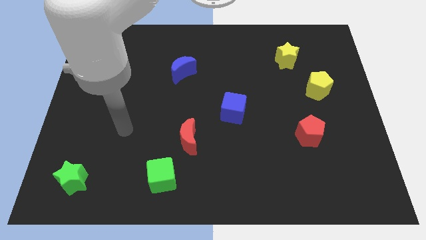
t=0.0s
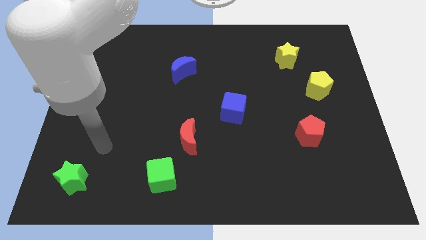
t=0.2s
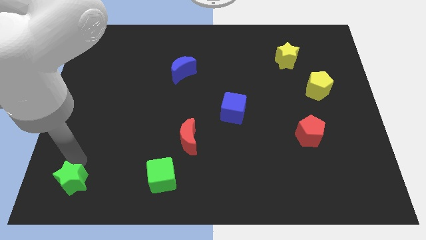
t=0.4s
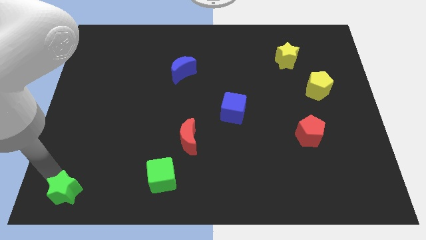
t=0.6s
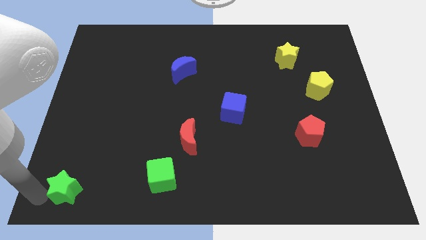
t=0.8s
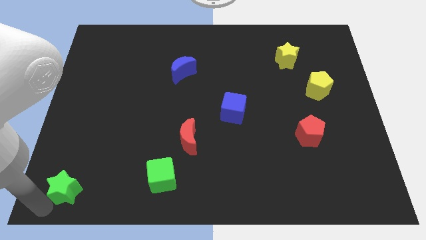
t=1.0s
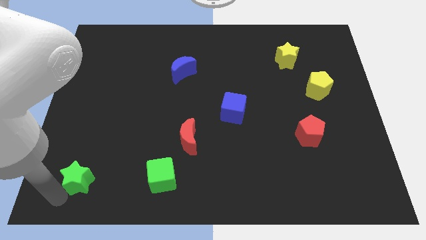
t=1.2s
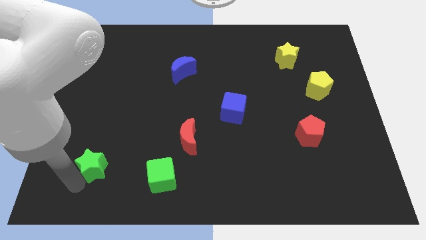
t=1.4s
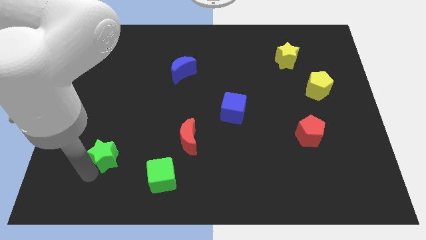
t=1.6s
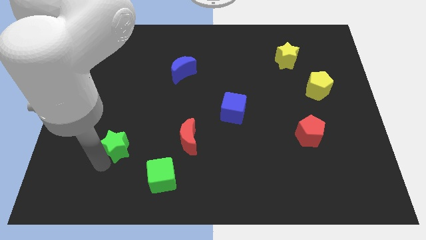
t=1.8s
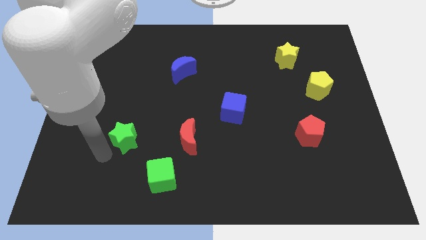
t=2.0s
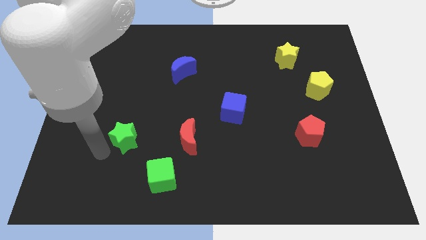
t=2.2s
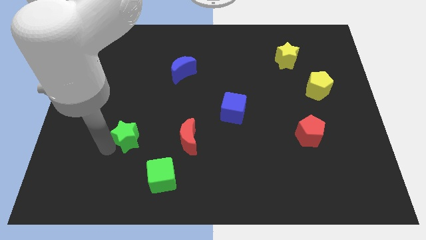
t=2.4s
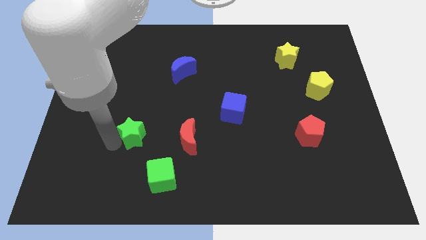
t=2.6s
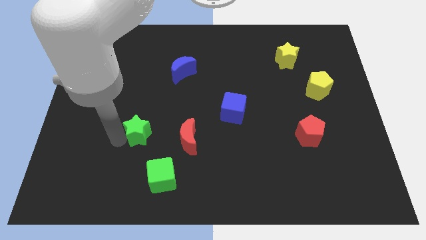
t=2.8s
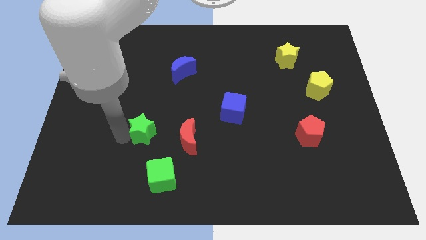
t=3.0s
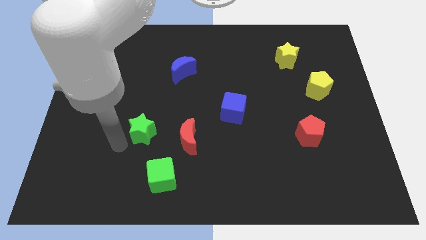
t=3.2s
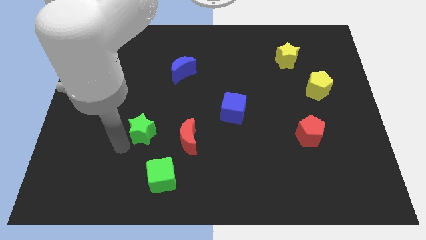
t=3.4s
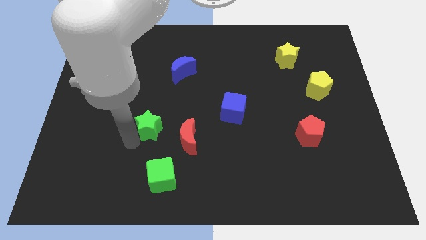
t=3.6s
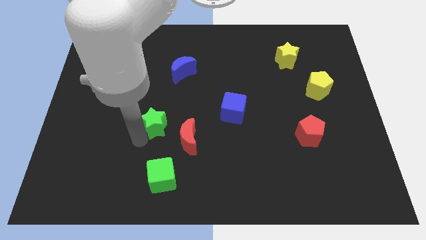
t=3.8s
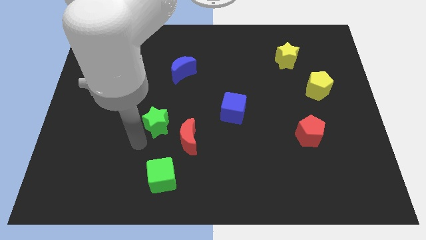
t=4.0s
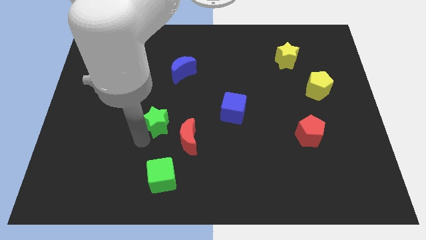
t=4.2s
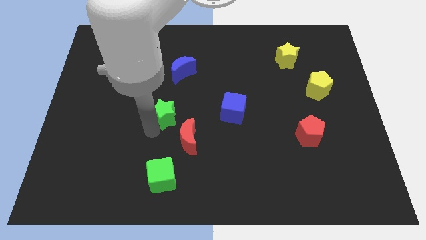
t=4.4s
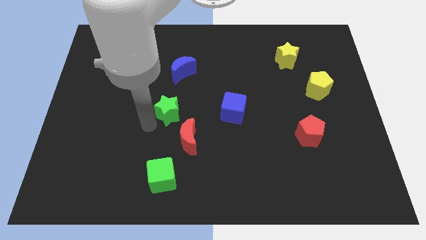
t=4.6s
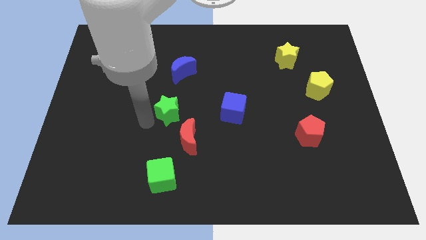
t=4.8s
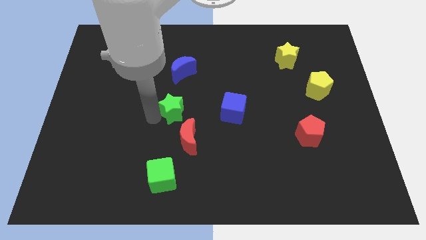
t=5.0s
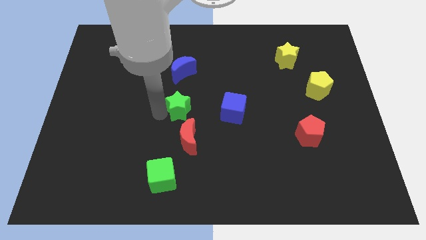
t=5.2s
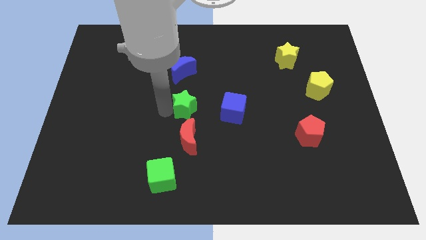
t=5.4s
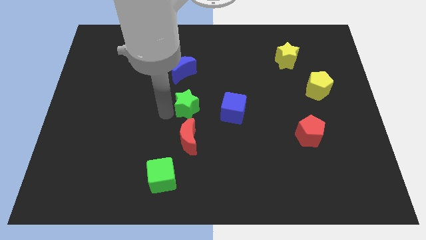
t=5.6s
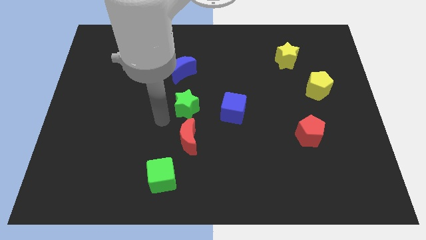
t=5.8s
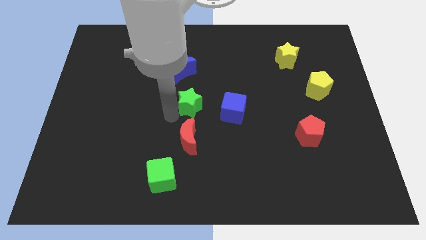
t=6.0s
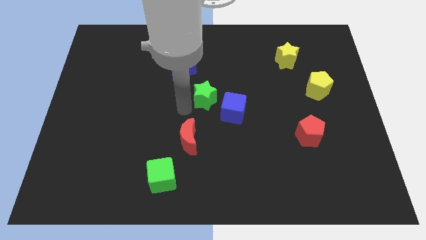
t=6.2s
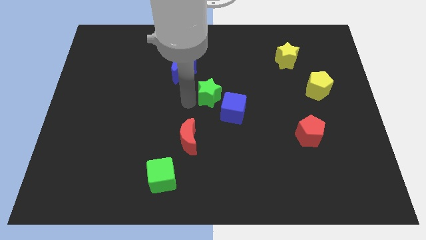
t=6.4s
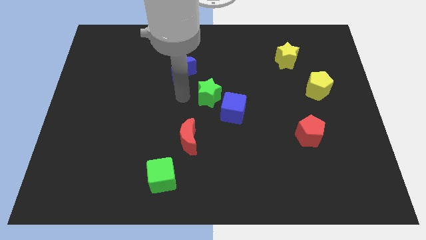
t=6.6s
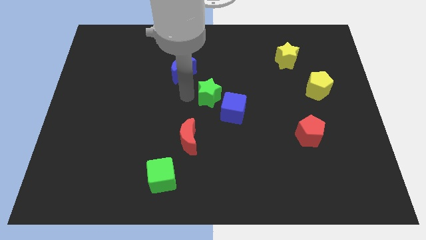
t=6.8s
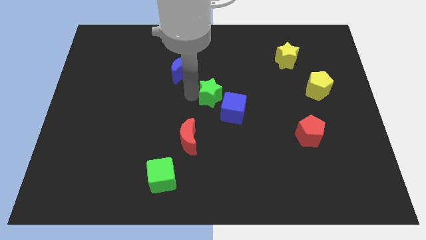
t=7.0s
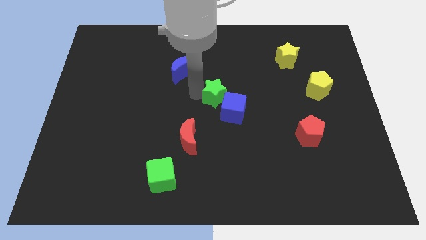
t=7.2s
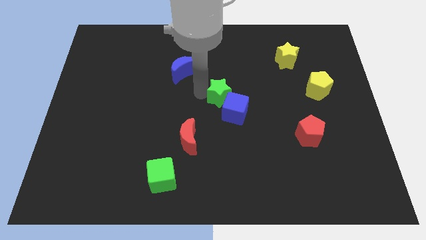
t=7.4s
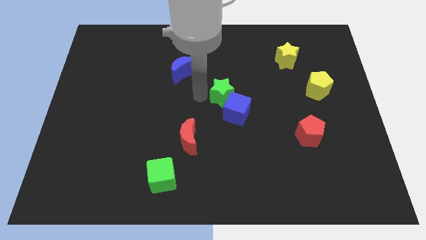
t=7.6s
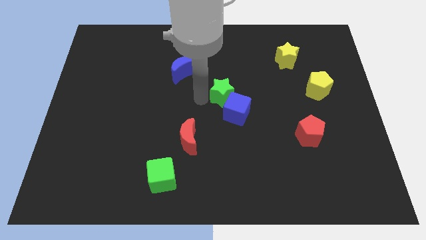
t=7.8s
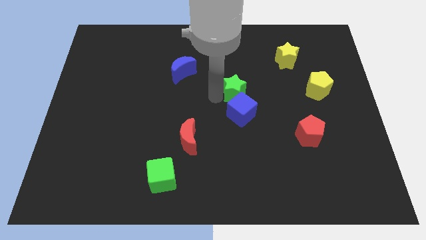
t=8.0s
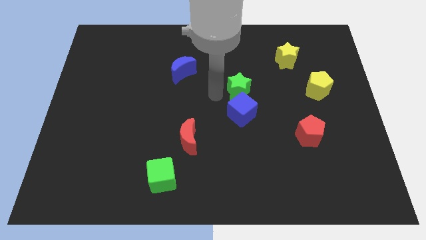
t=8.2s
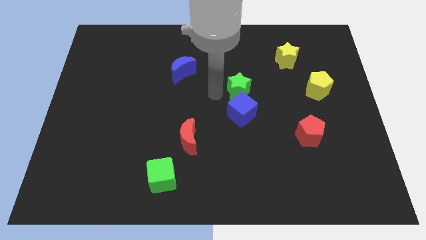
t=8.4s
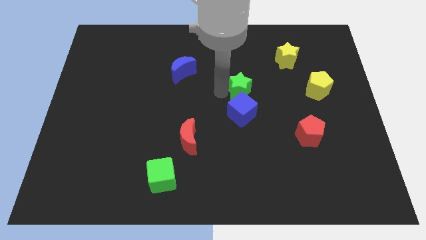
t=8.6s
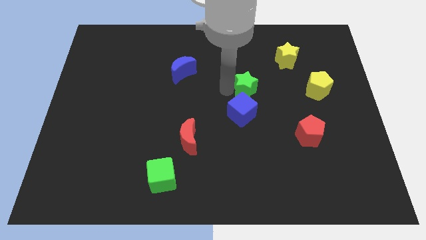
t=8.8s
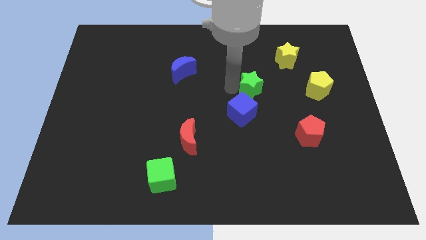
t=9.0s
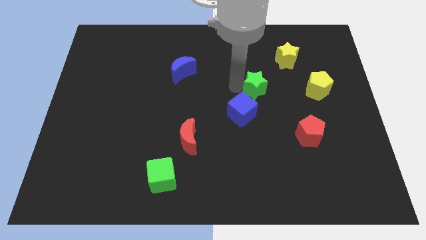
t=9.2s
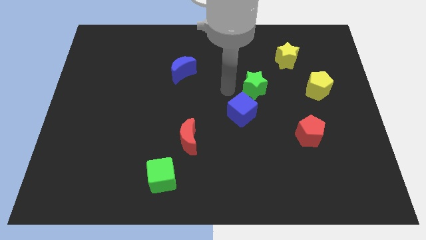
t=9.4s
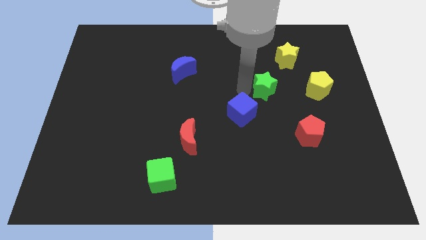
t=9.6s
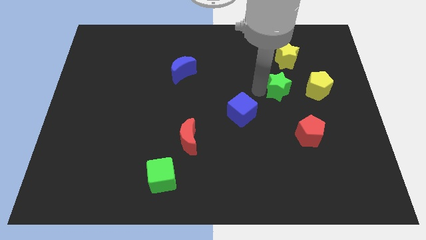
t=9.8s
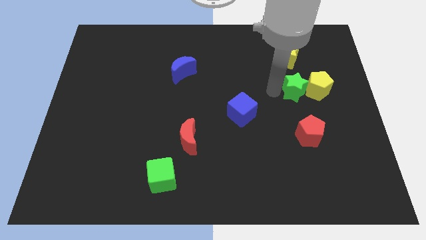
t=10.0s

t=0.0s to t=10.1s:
push the green star to the yellow pentagon

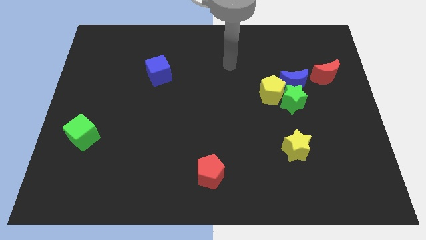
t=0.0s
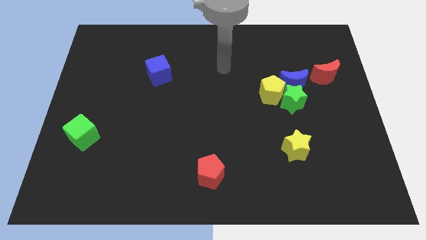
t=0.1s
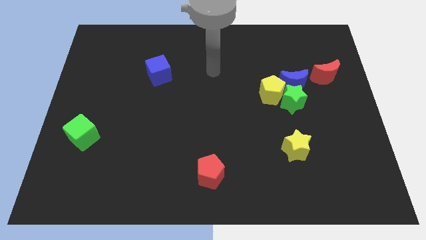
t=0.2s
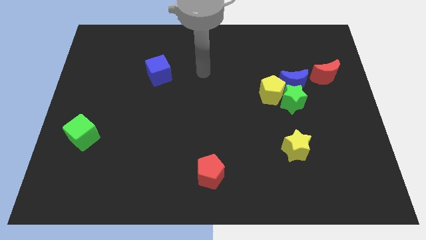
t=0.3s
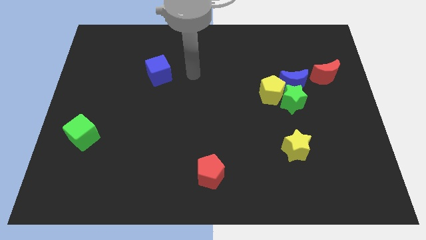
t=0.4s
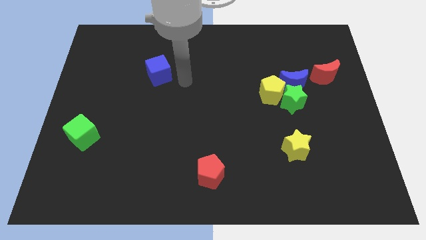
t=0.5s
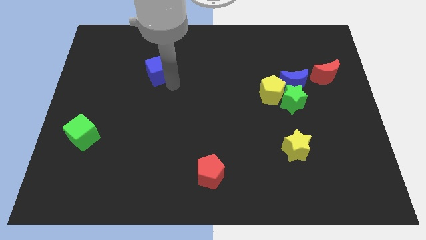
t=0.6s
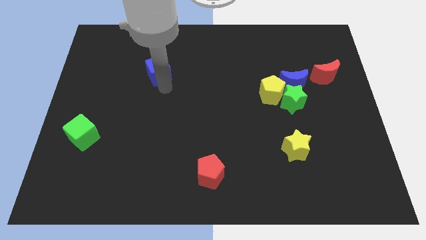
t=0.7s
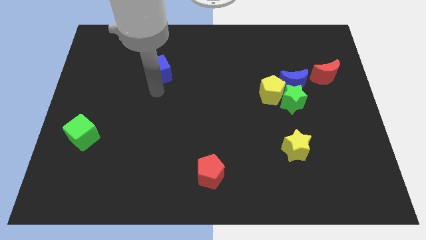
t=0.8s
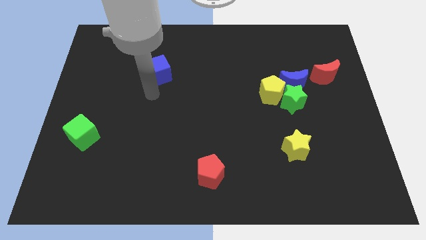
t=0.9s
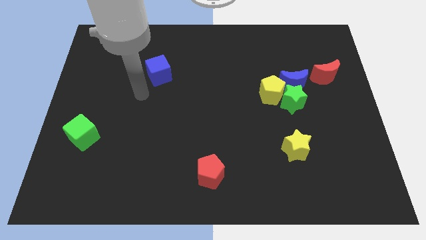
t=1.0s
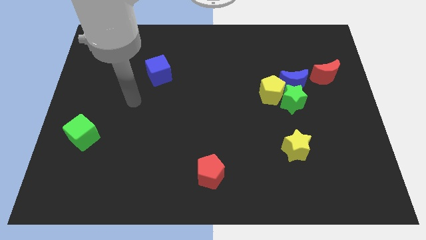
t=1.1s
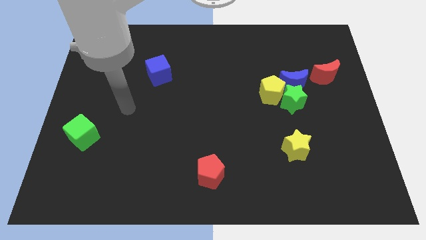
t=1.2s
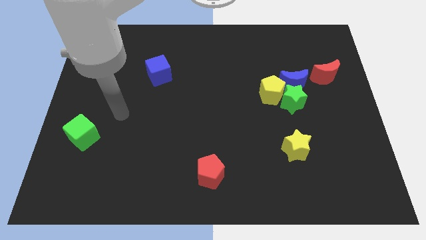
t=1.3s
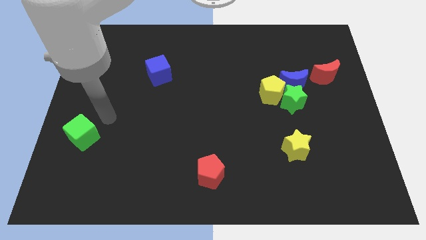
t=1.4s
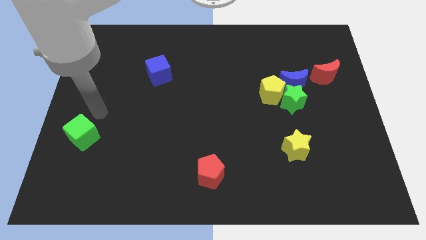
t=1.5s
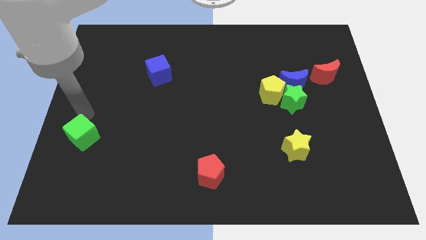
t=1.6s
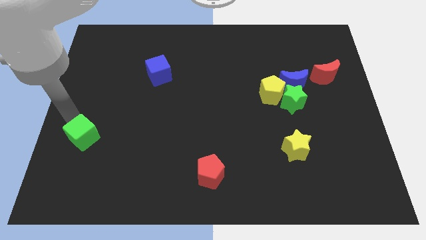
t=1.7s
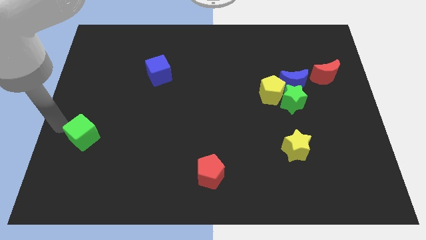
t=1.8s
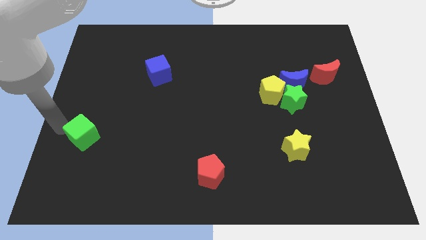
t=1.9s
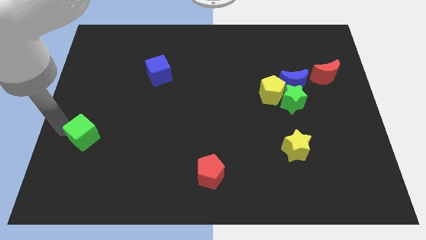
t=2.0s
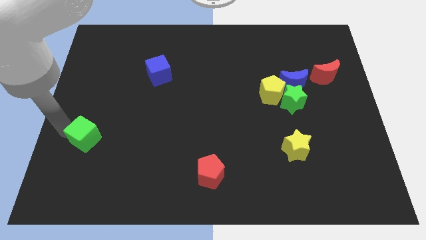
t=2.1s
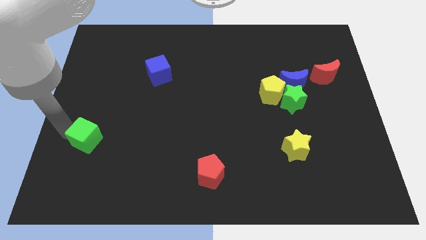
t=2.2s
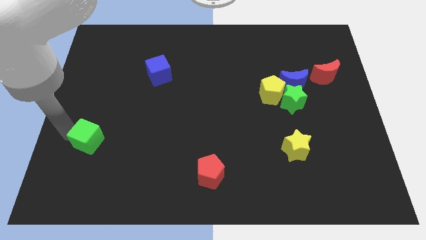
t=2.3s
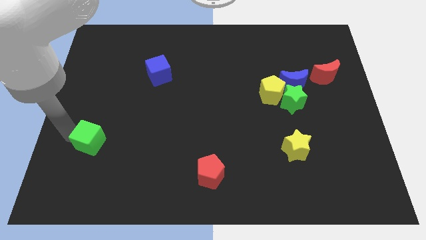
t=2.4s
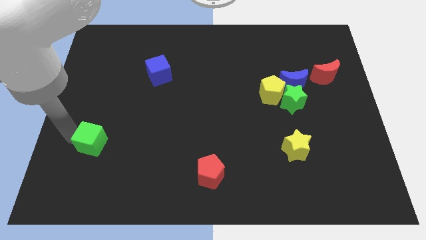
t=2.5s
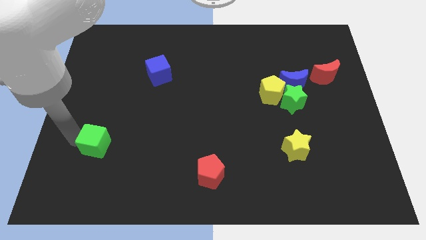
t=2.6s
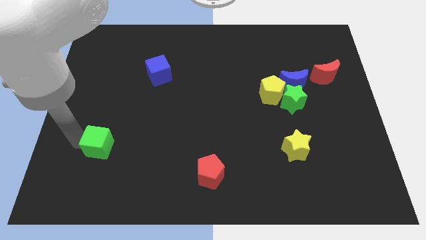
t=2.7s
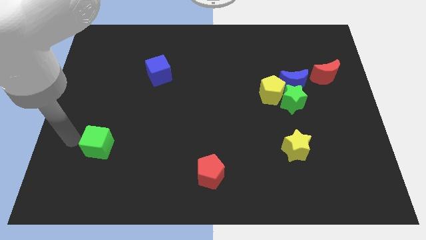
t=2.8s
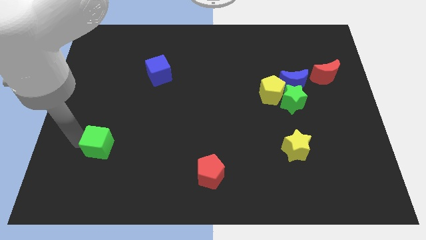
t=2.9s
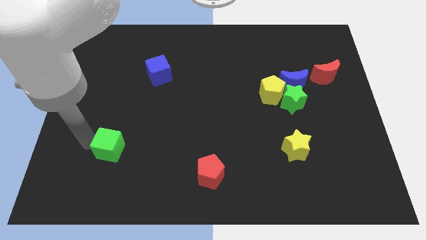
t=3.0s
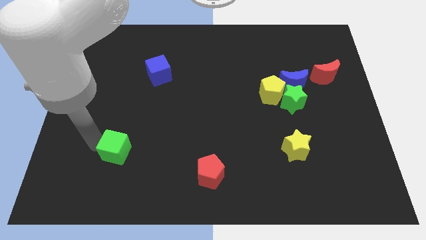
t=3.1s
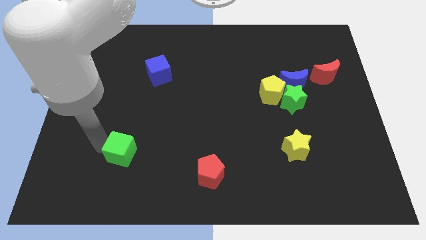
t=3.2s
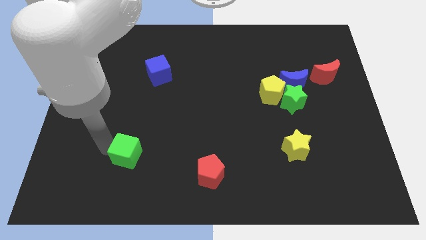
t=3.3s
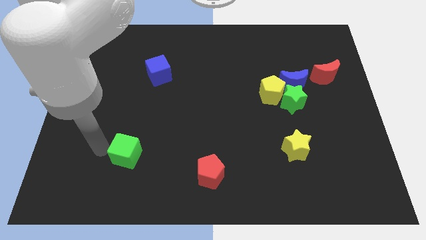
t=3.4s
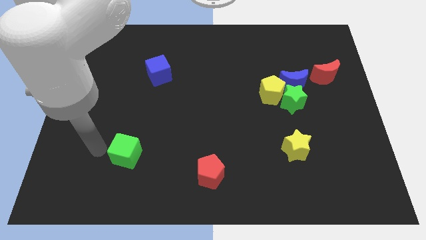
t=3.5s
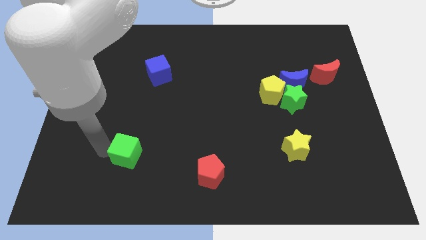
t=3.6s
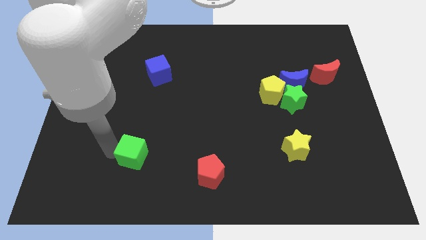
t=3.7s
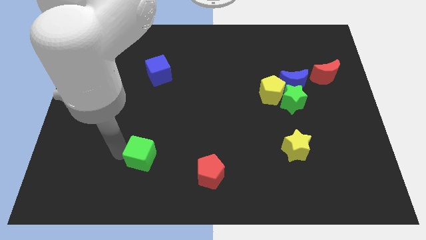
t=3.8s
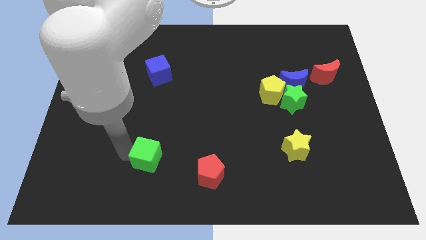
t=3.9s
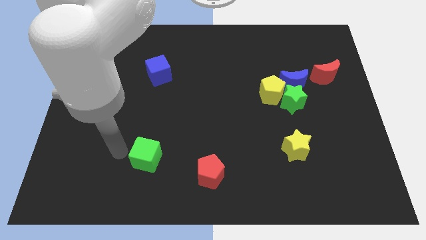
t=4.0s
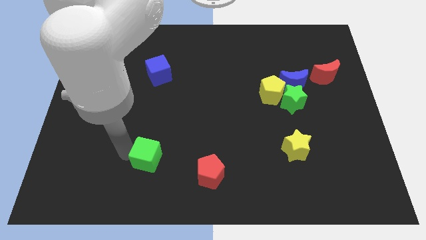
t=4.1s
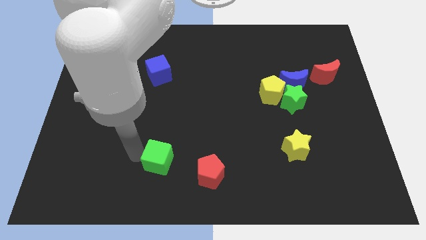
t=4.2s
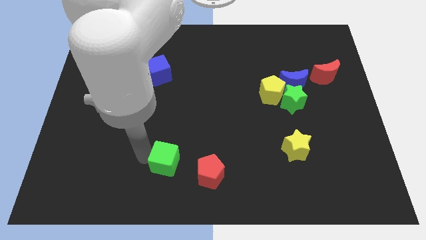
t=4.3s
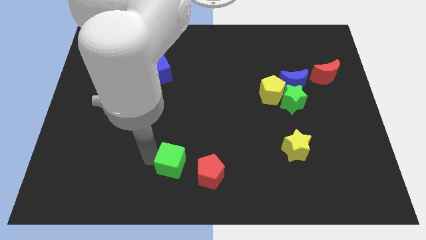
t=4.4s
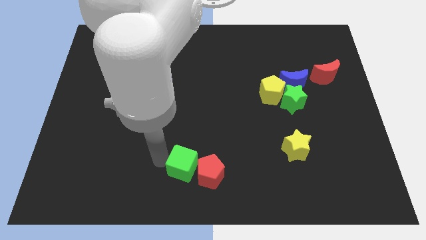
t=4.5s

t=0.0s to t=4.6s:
slide the green cube close to the red pentagon
